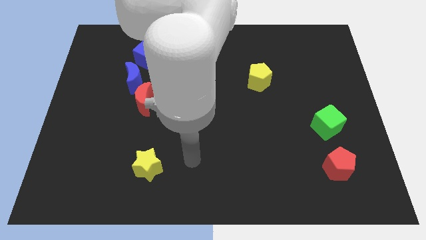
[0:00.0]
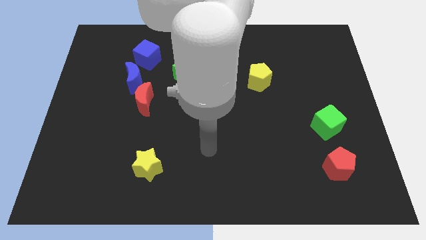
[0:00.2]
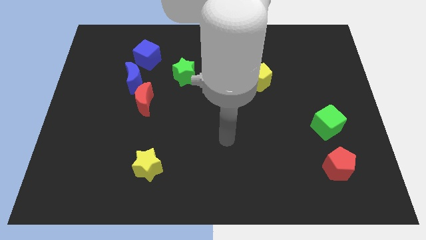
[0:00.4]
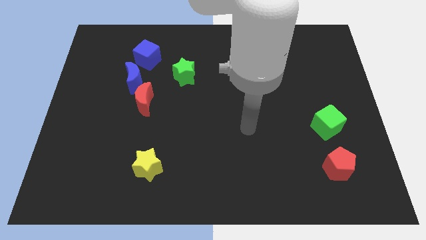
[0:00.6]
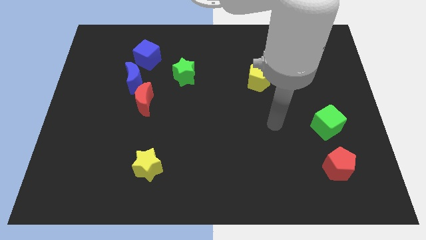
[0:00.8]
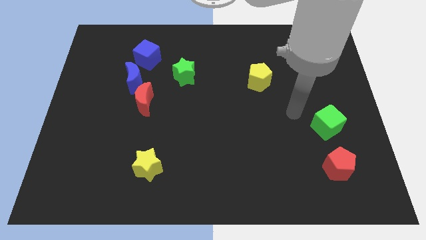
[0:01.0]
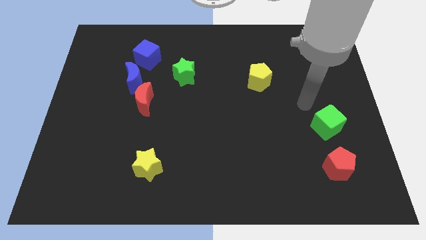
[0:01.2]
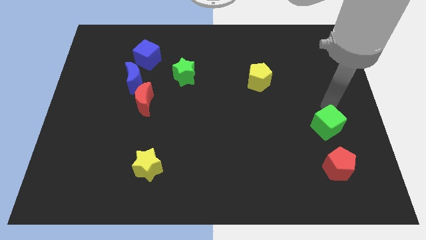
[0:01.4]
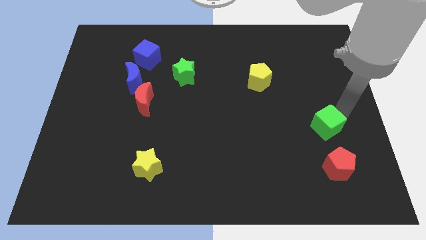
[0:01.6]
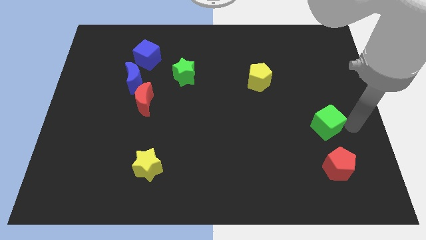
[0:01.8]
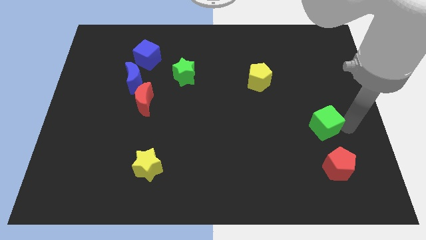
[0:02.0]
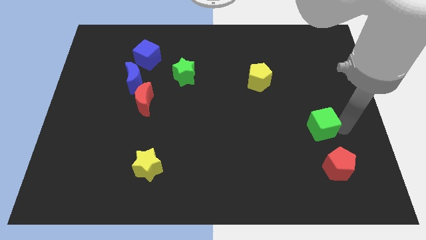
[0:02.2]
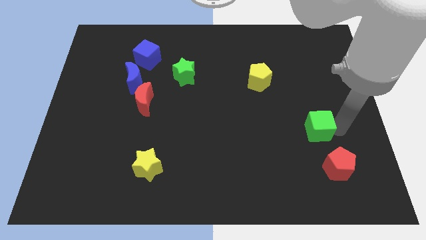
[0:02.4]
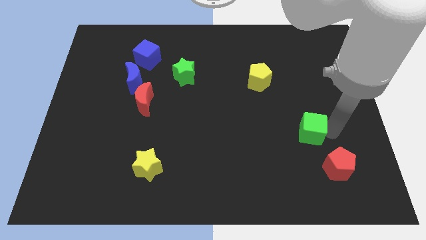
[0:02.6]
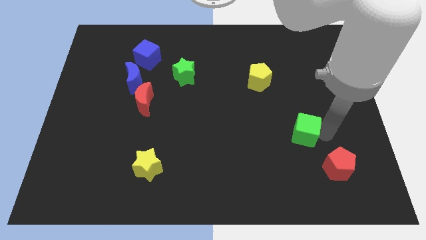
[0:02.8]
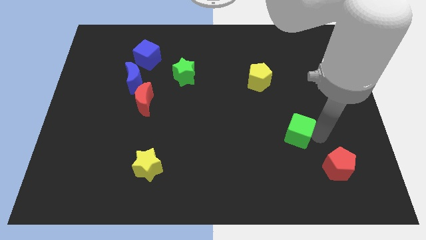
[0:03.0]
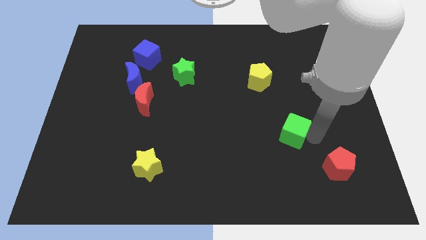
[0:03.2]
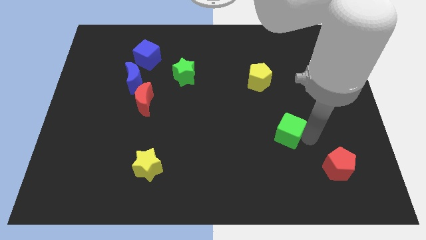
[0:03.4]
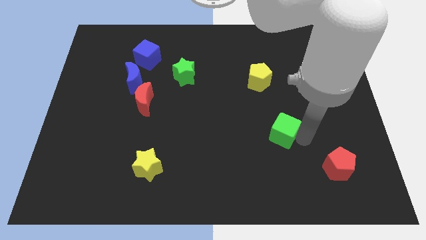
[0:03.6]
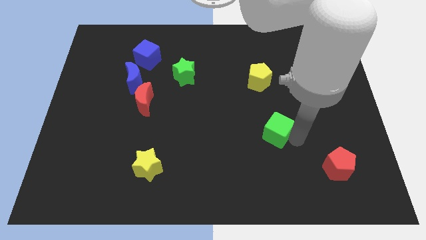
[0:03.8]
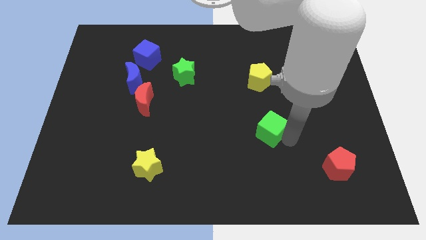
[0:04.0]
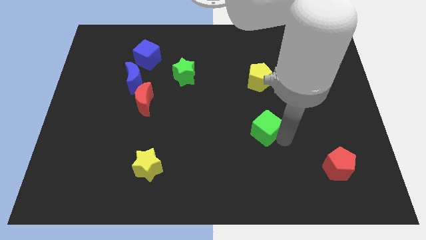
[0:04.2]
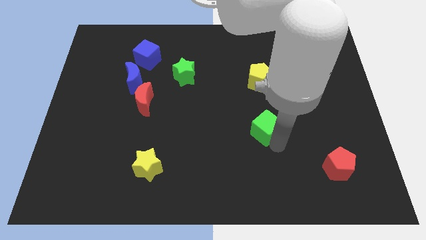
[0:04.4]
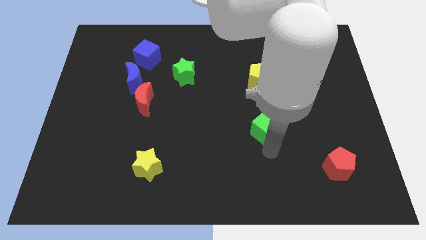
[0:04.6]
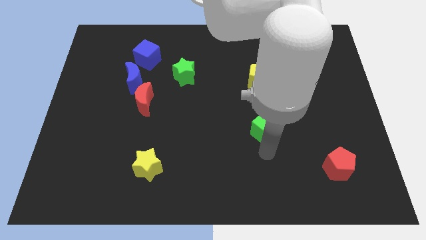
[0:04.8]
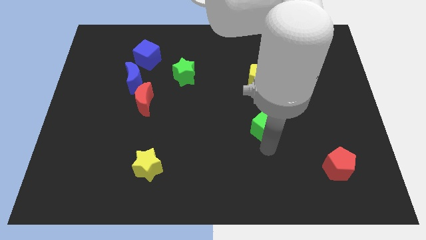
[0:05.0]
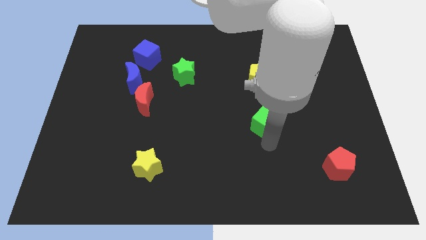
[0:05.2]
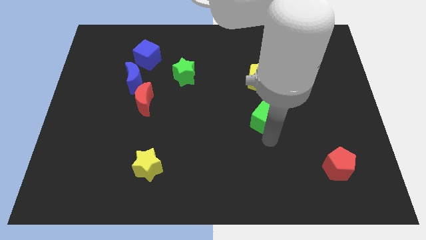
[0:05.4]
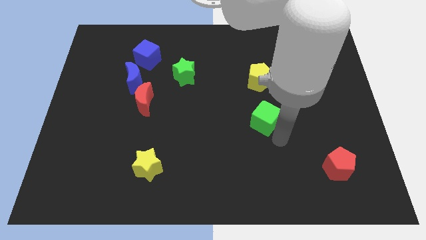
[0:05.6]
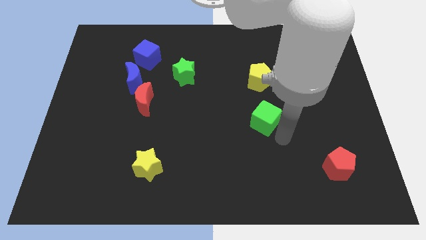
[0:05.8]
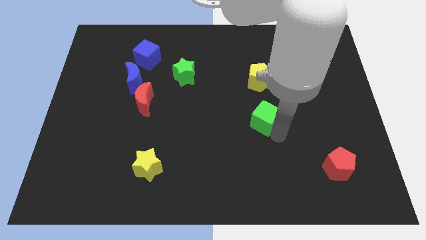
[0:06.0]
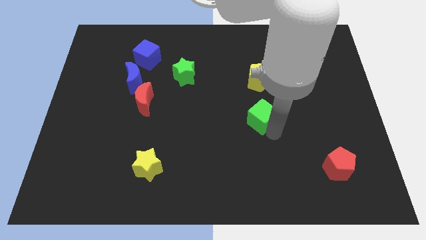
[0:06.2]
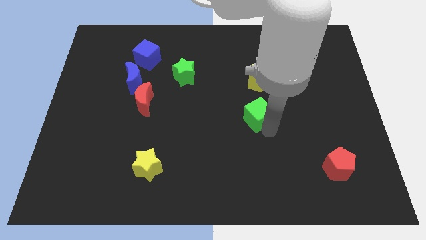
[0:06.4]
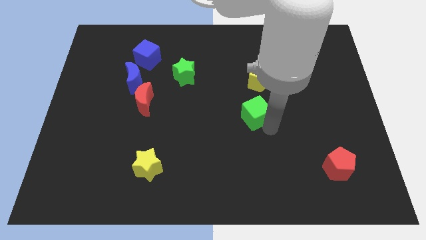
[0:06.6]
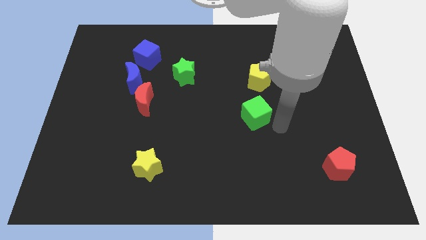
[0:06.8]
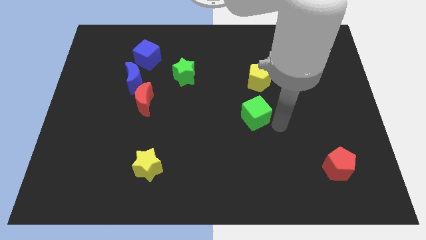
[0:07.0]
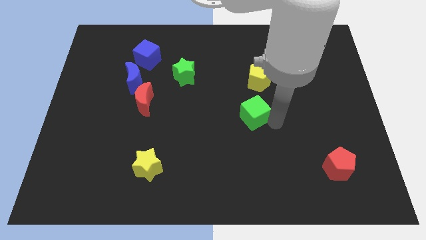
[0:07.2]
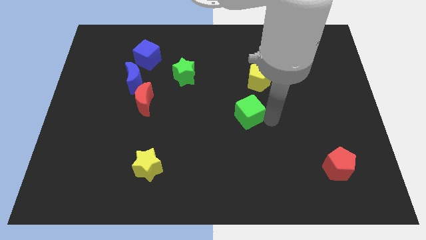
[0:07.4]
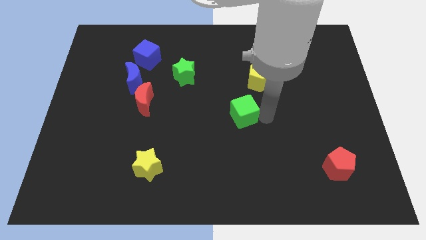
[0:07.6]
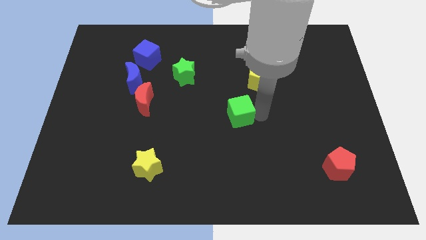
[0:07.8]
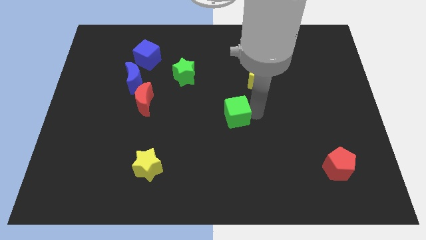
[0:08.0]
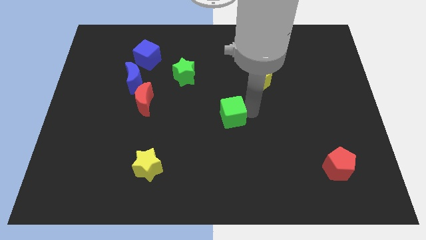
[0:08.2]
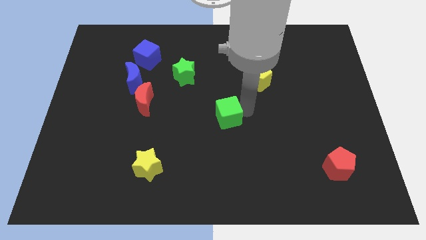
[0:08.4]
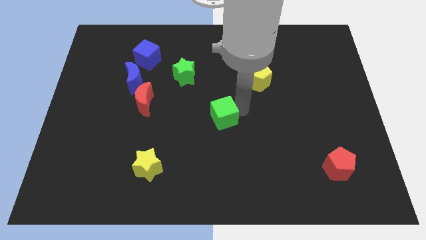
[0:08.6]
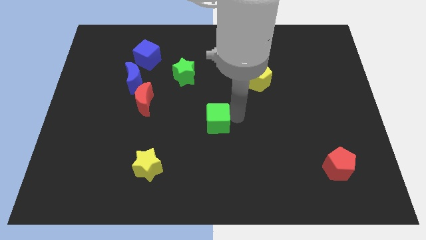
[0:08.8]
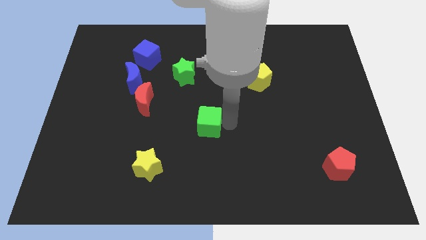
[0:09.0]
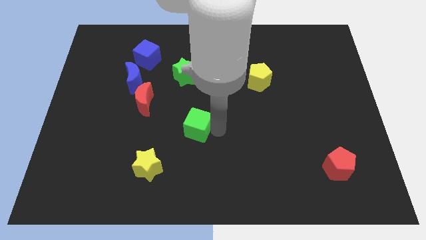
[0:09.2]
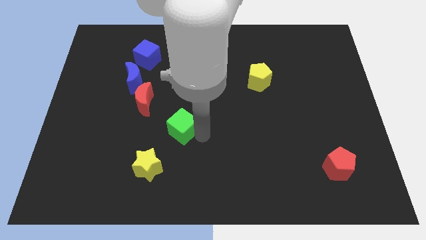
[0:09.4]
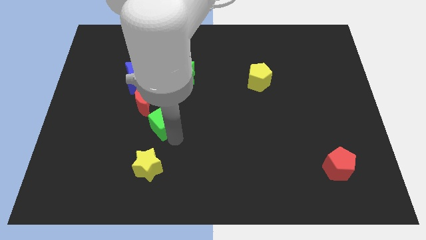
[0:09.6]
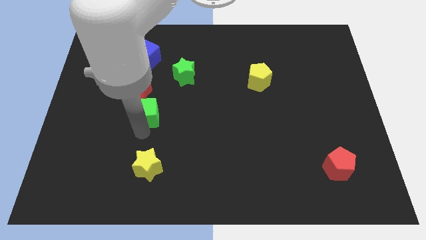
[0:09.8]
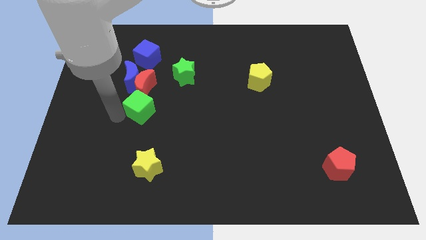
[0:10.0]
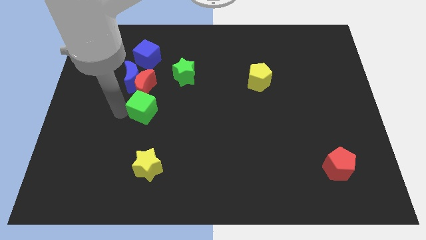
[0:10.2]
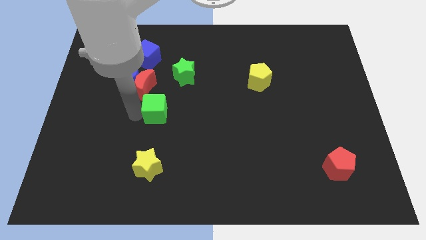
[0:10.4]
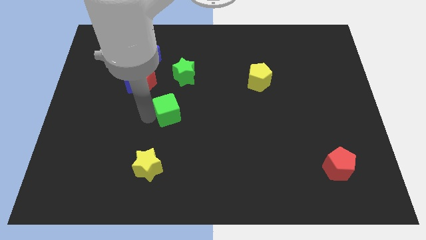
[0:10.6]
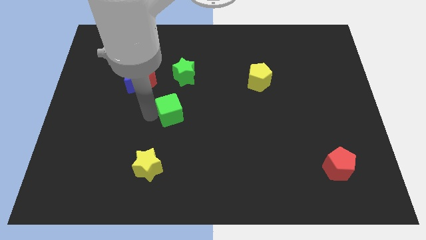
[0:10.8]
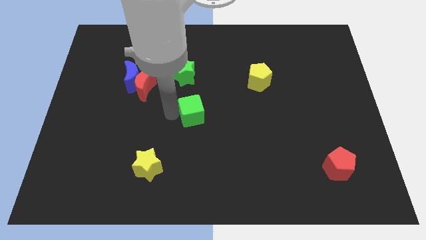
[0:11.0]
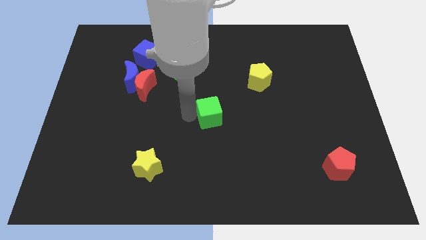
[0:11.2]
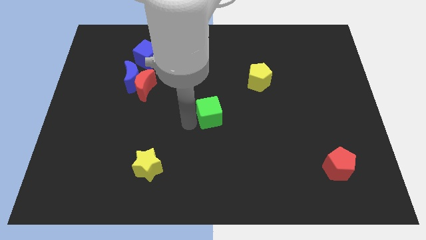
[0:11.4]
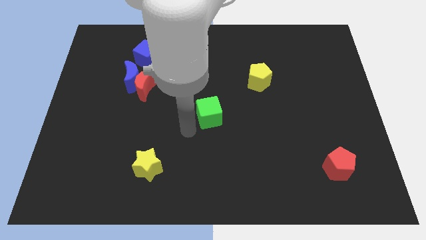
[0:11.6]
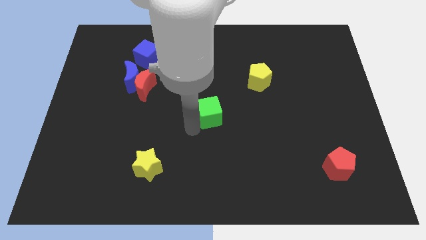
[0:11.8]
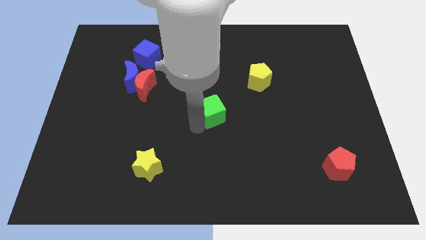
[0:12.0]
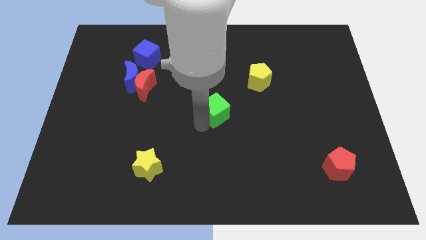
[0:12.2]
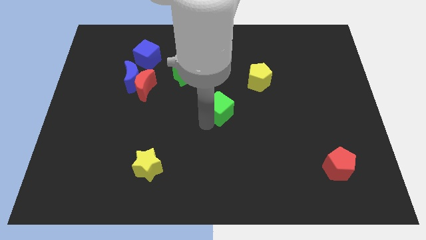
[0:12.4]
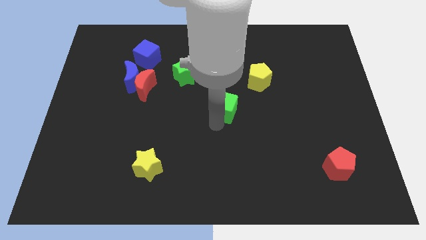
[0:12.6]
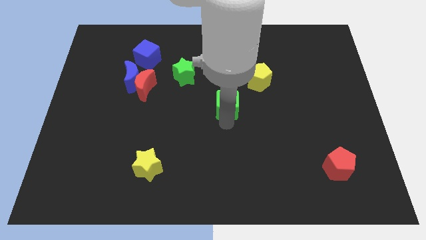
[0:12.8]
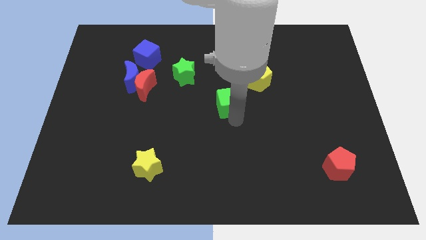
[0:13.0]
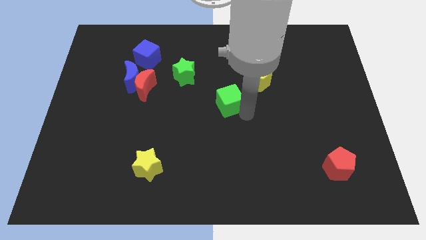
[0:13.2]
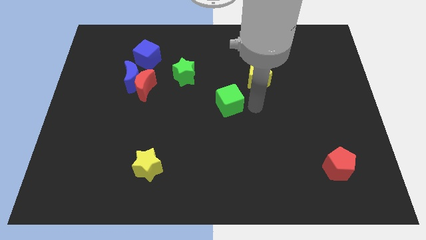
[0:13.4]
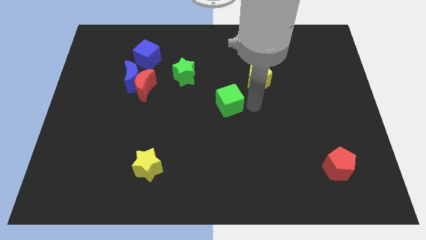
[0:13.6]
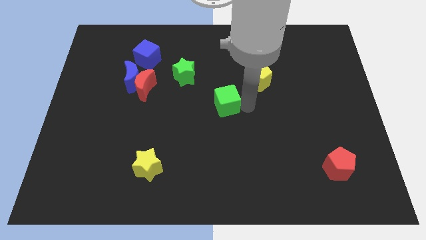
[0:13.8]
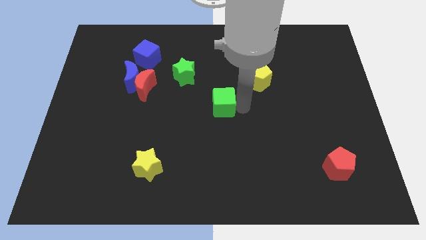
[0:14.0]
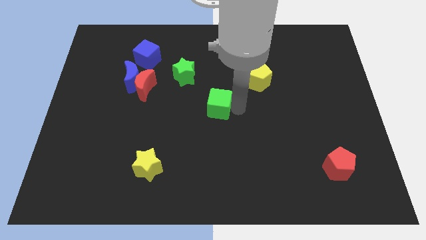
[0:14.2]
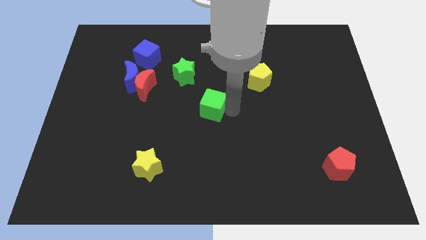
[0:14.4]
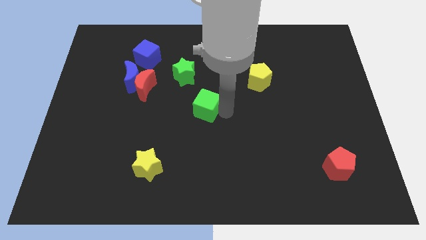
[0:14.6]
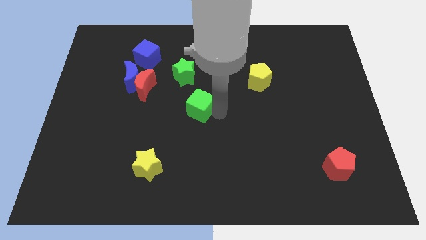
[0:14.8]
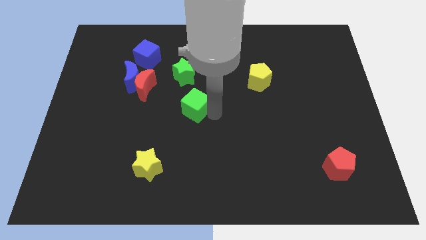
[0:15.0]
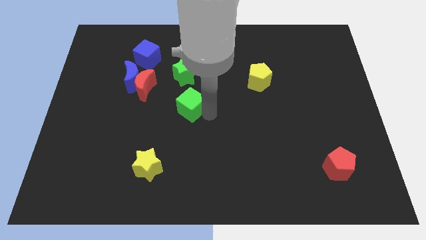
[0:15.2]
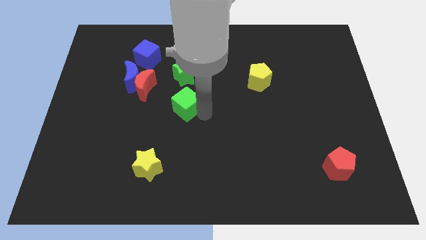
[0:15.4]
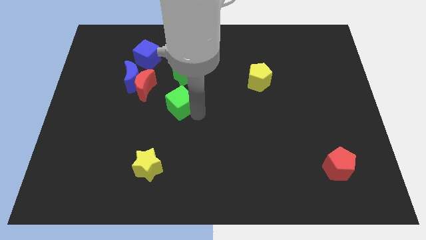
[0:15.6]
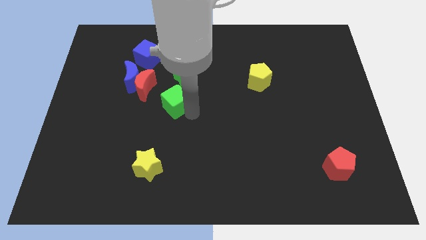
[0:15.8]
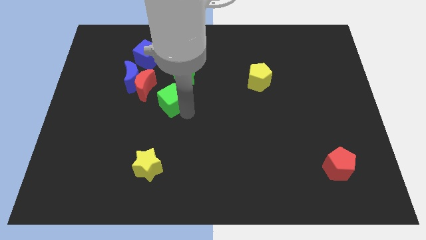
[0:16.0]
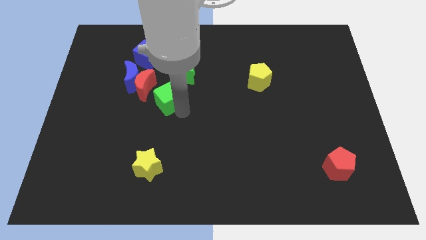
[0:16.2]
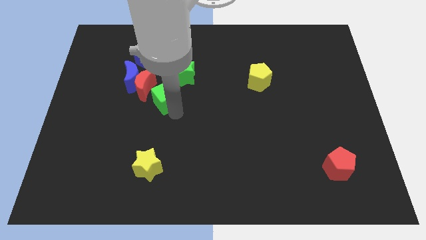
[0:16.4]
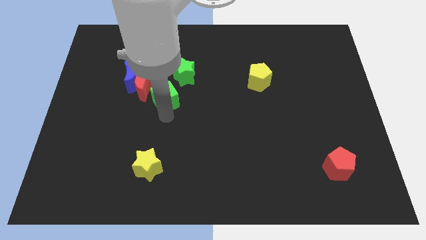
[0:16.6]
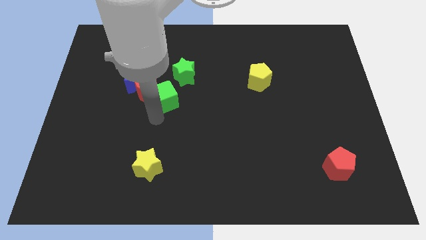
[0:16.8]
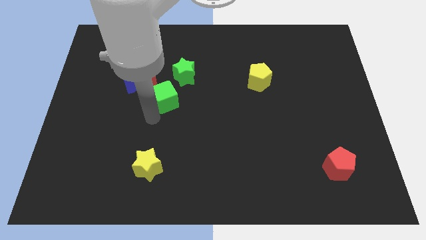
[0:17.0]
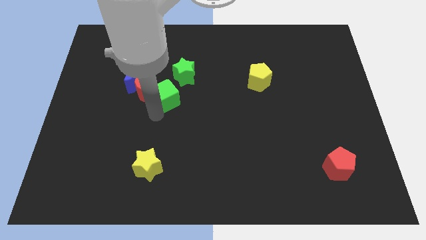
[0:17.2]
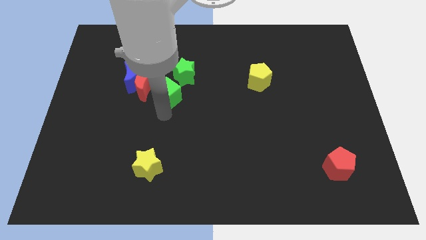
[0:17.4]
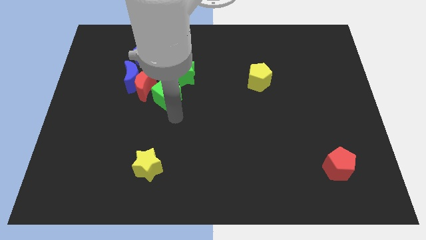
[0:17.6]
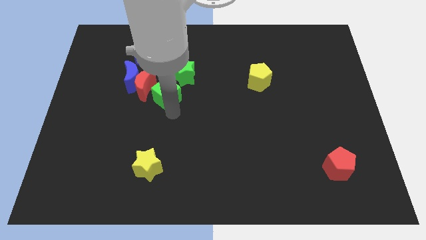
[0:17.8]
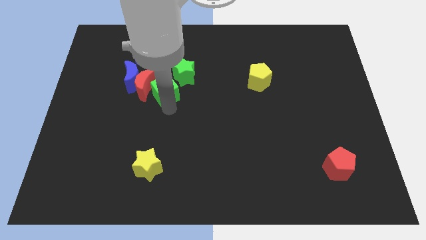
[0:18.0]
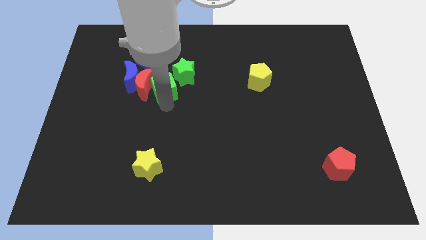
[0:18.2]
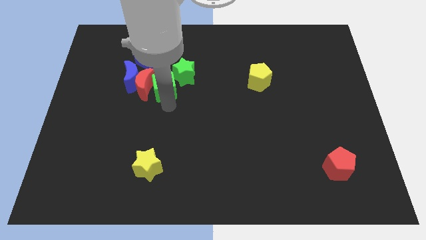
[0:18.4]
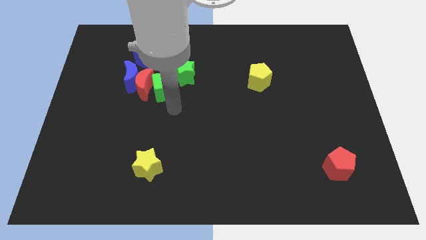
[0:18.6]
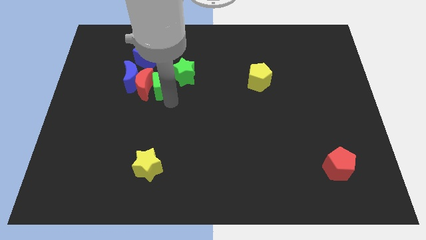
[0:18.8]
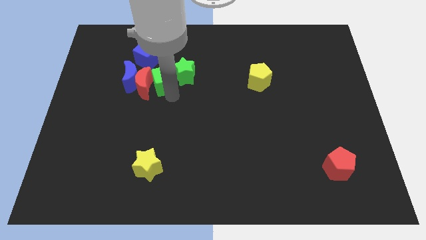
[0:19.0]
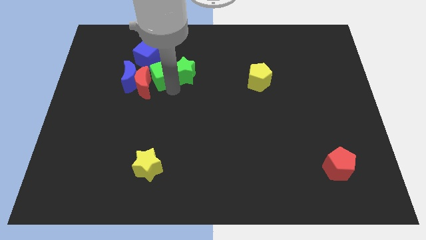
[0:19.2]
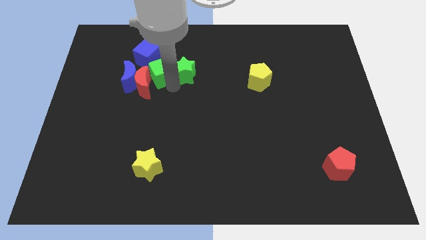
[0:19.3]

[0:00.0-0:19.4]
push the green cube above the red moon
